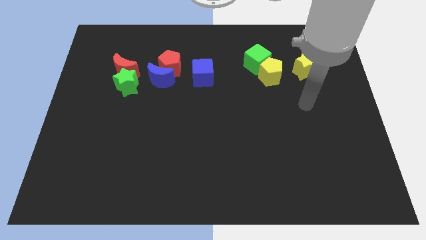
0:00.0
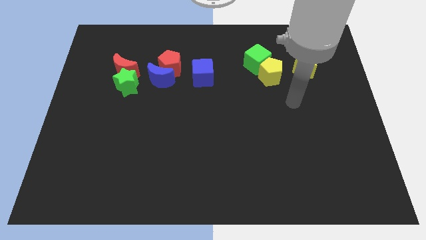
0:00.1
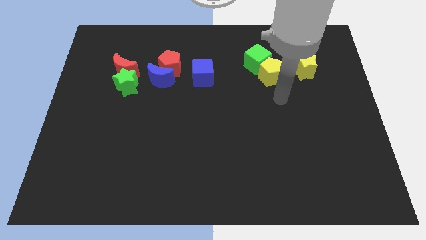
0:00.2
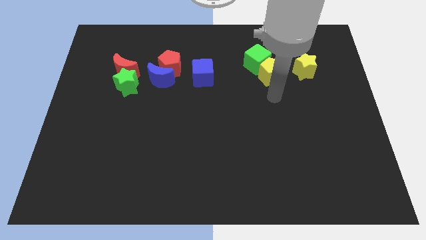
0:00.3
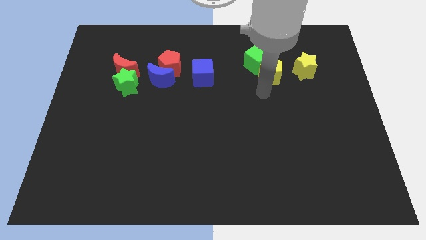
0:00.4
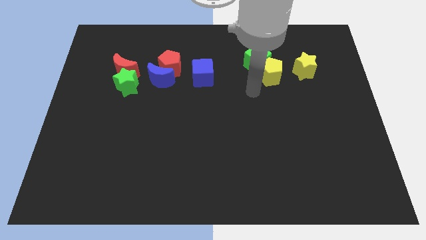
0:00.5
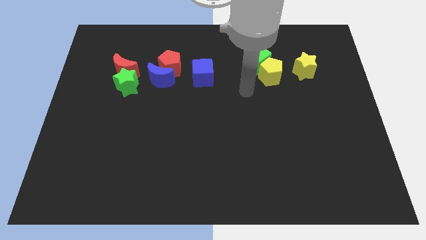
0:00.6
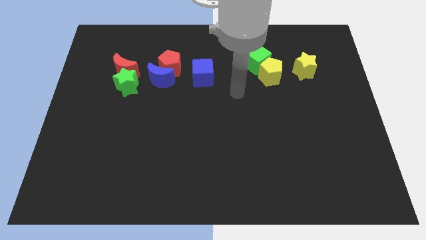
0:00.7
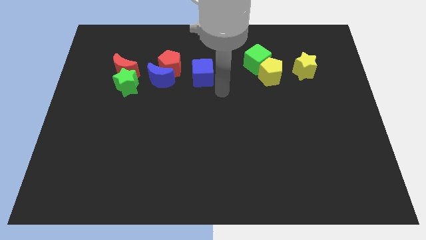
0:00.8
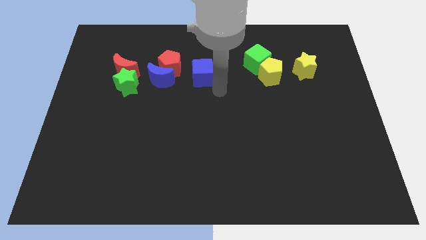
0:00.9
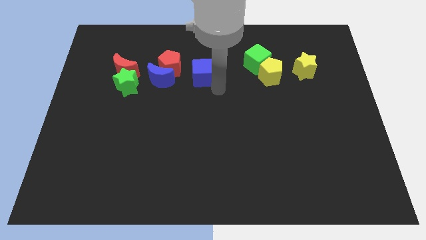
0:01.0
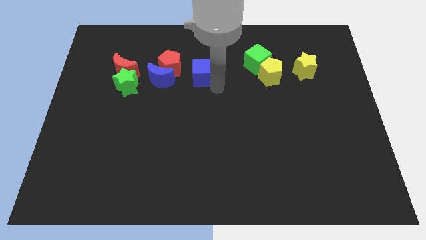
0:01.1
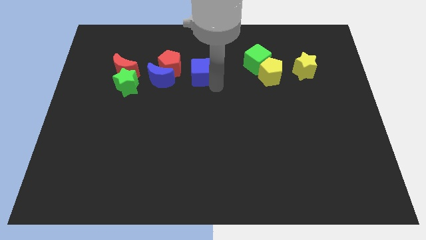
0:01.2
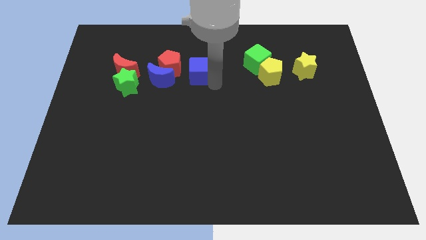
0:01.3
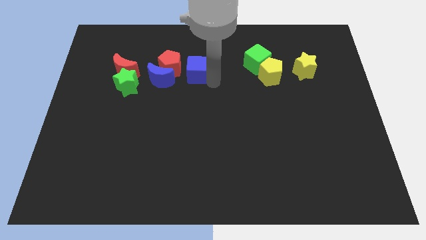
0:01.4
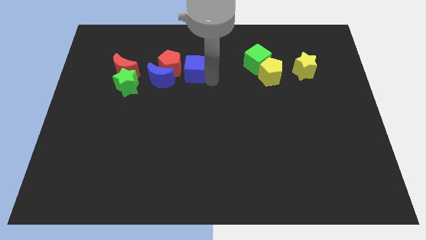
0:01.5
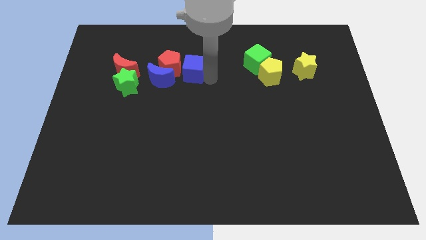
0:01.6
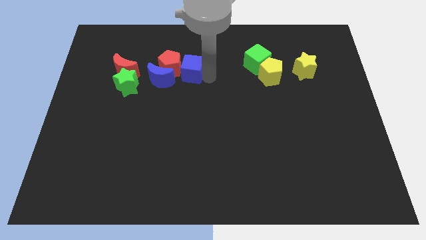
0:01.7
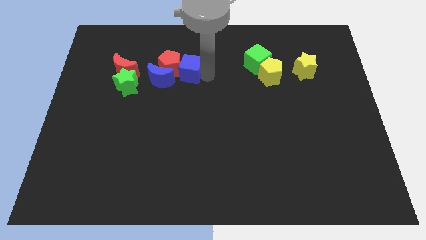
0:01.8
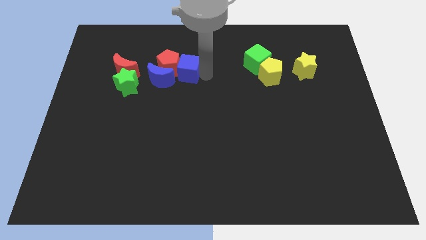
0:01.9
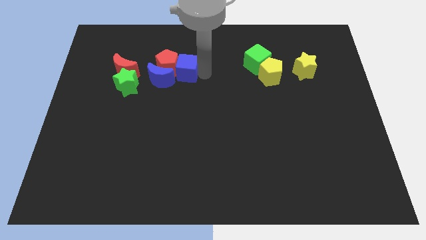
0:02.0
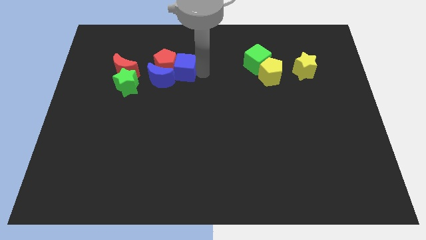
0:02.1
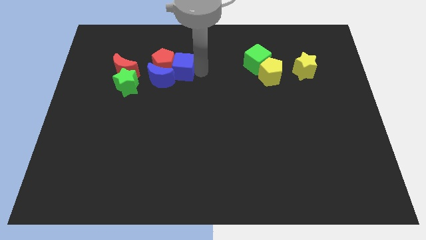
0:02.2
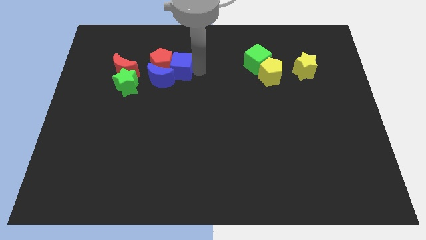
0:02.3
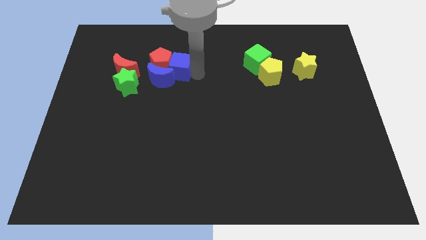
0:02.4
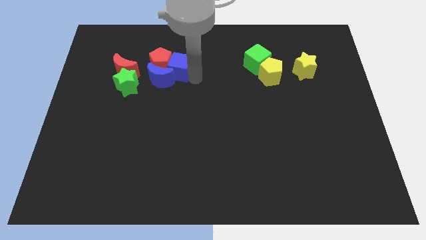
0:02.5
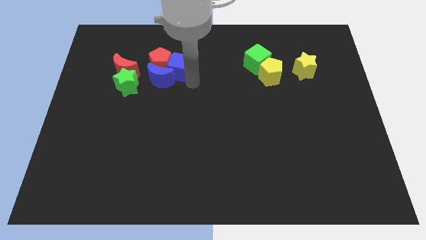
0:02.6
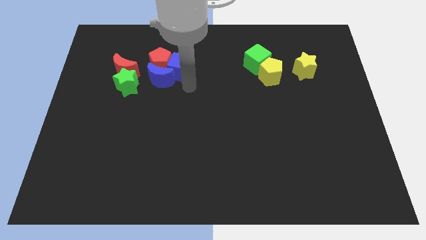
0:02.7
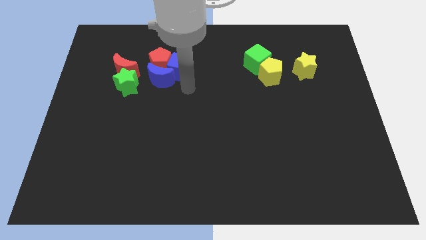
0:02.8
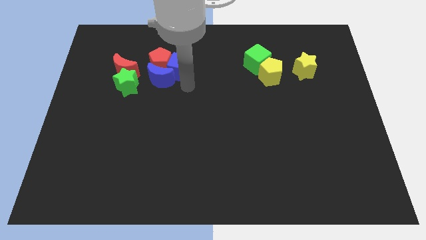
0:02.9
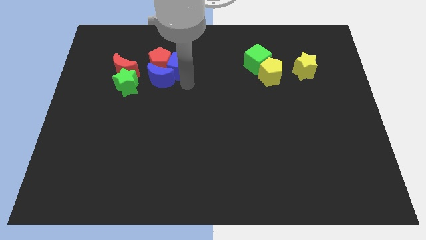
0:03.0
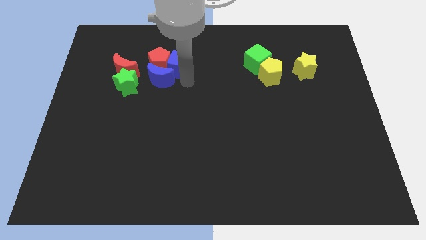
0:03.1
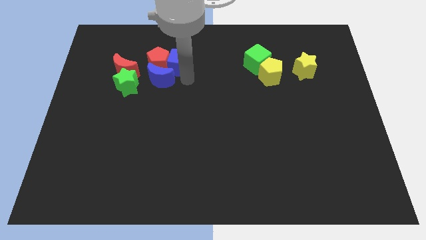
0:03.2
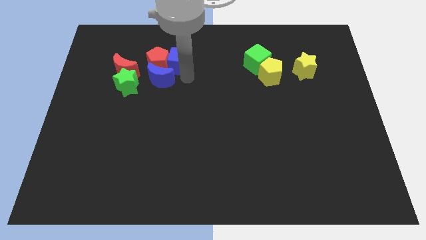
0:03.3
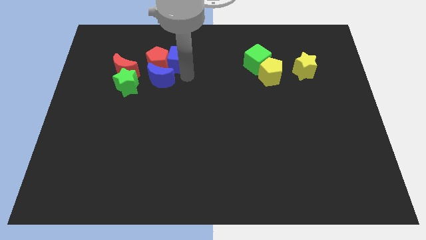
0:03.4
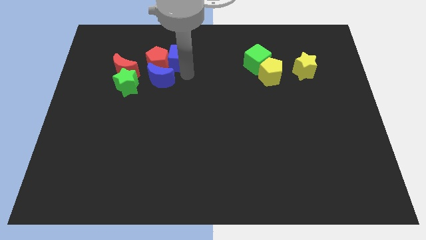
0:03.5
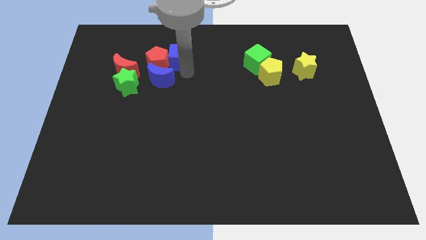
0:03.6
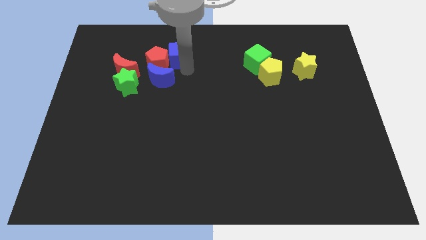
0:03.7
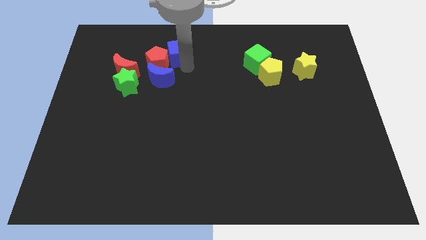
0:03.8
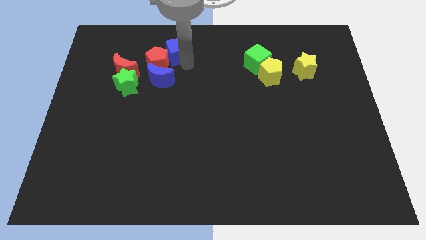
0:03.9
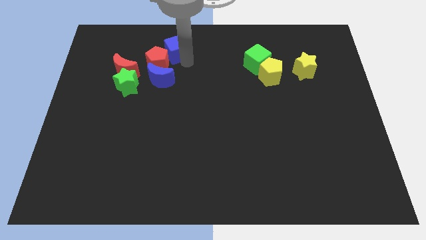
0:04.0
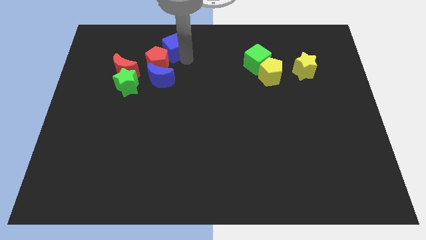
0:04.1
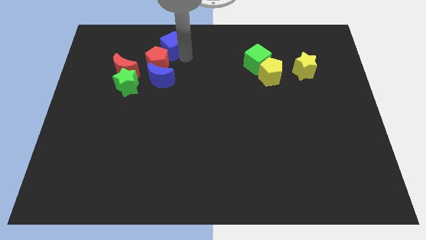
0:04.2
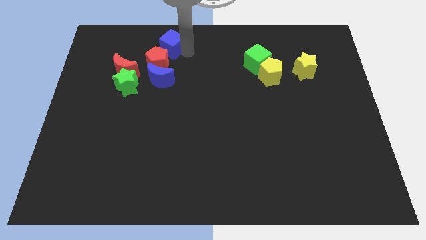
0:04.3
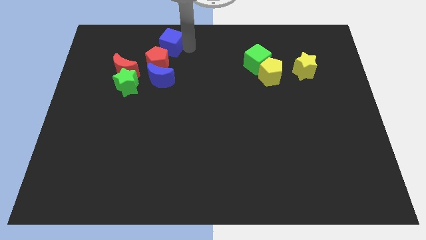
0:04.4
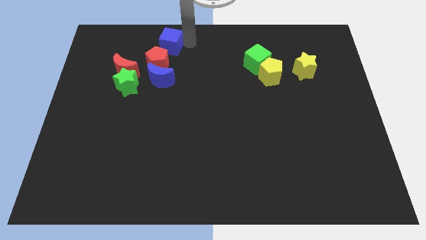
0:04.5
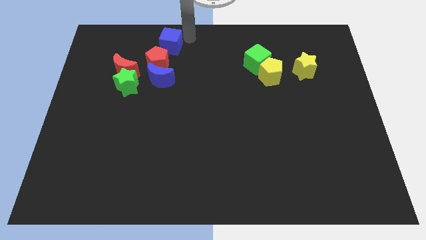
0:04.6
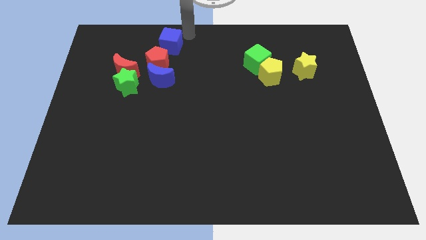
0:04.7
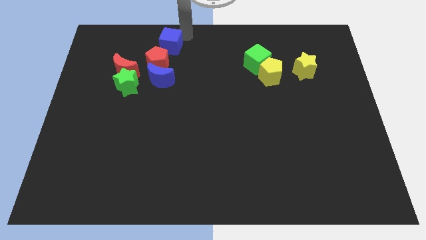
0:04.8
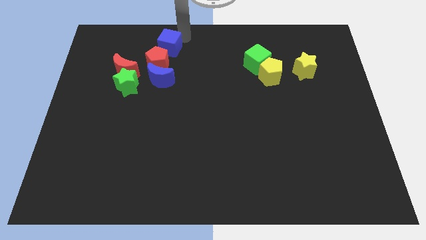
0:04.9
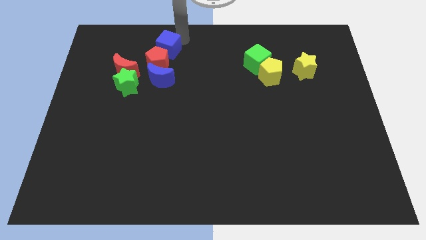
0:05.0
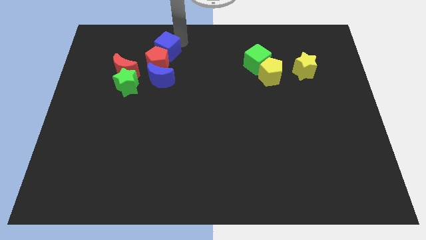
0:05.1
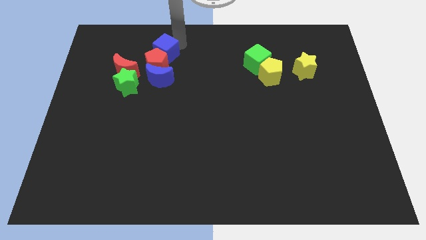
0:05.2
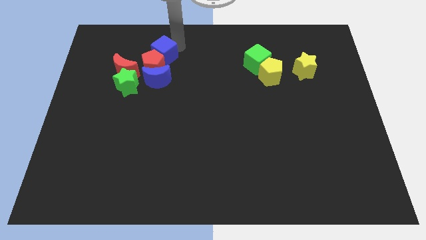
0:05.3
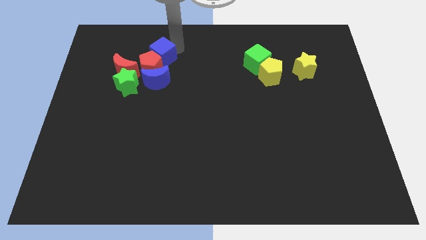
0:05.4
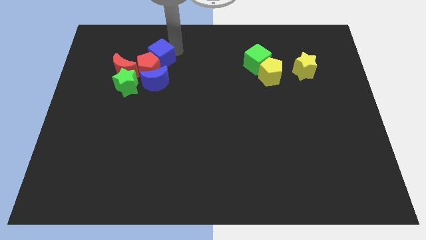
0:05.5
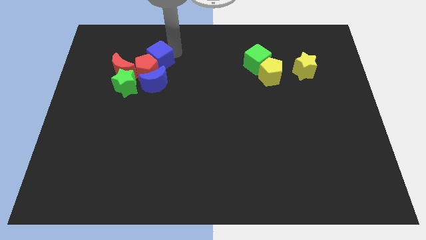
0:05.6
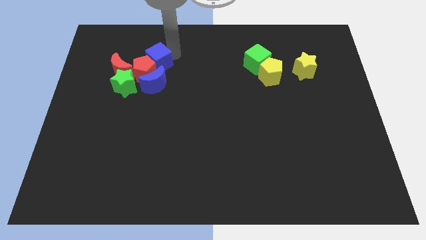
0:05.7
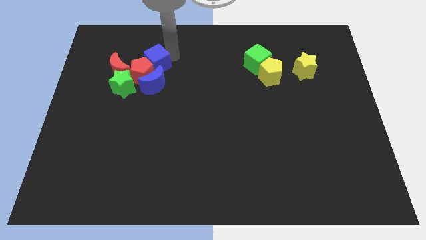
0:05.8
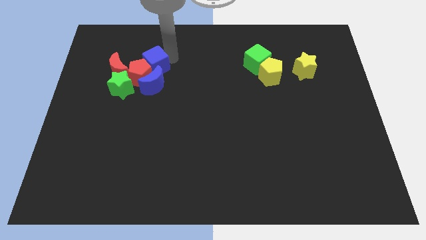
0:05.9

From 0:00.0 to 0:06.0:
move the blue cube to the top left side of the blue moon

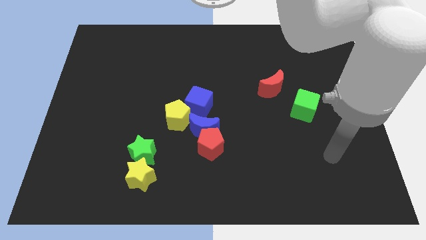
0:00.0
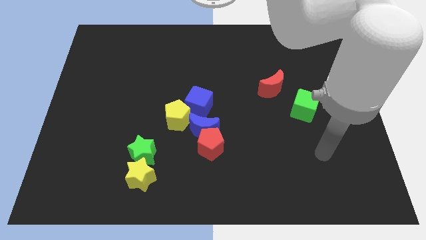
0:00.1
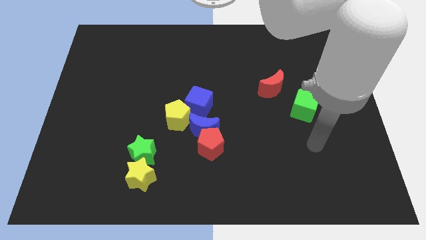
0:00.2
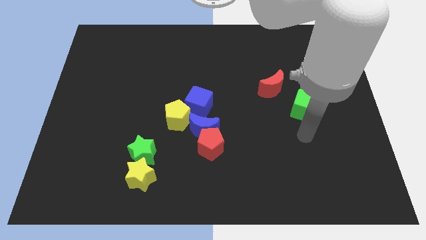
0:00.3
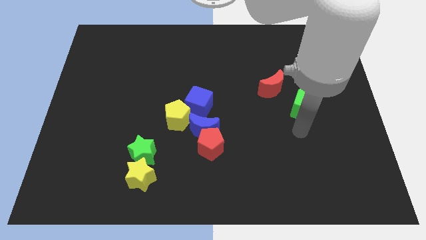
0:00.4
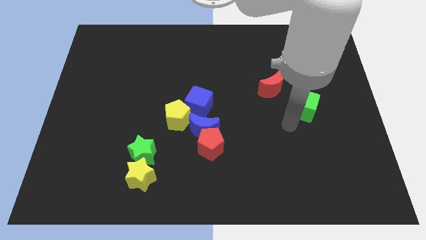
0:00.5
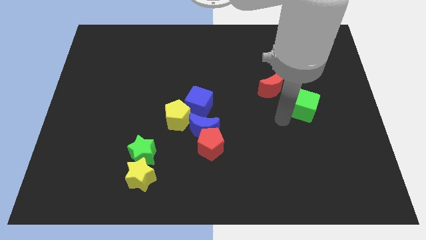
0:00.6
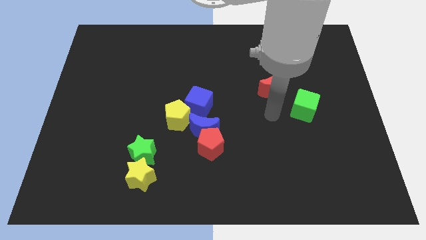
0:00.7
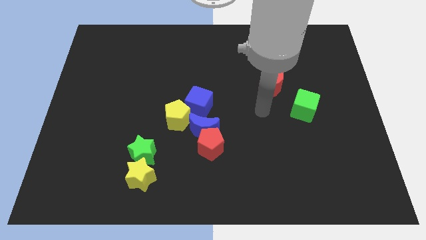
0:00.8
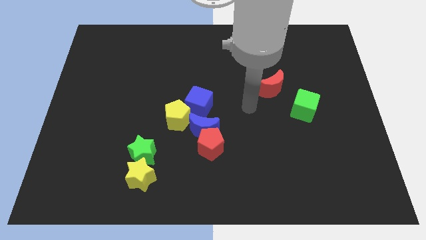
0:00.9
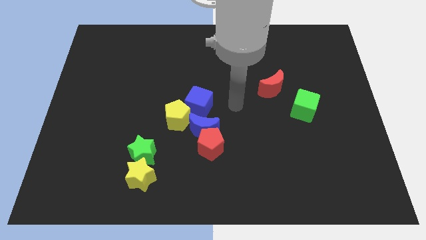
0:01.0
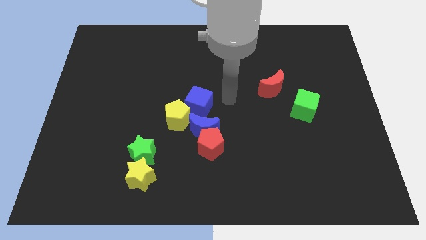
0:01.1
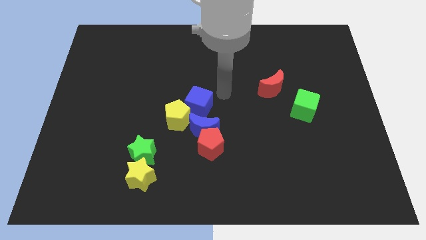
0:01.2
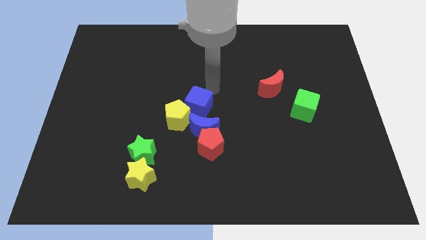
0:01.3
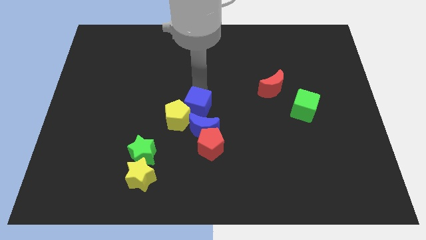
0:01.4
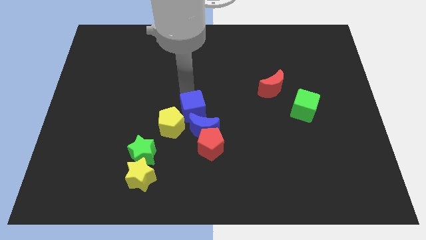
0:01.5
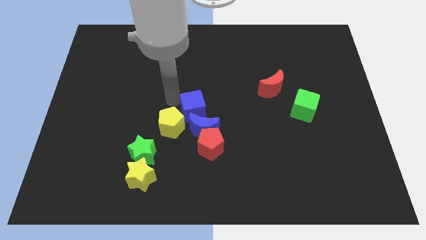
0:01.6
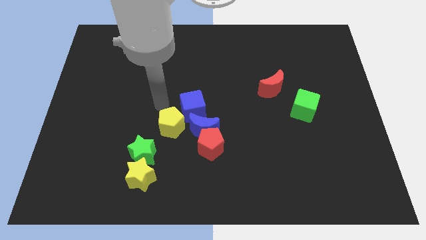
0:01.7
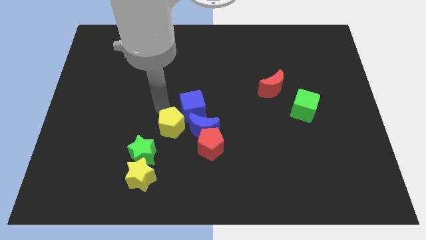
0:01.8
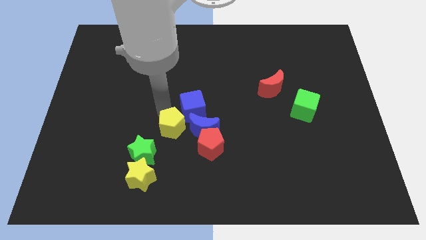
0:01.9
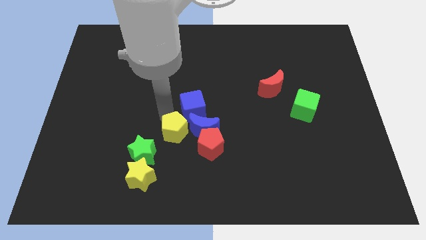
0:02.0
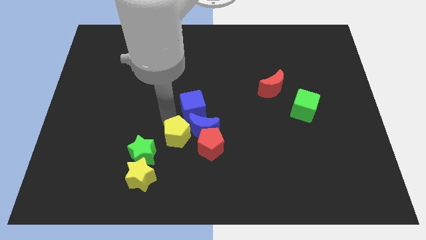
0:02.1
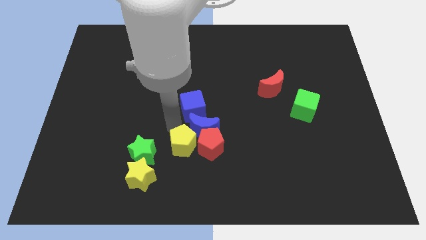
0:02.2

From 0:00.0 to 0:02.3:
move the yellow pentagon to the bottom left of the red pentagon
